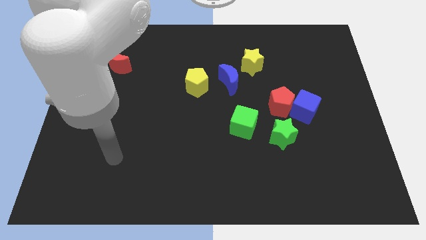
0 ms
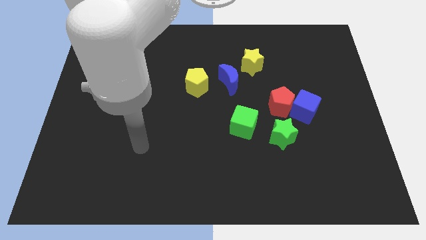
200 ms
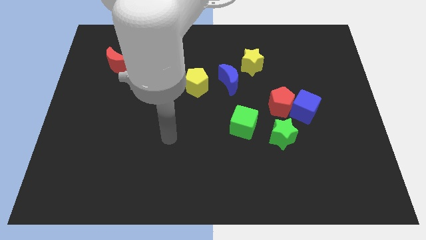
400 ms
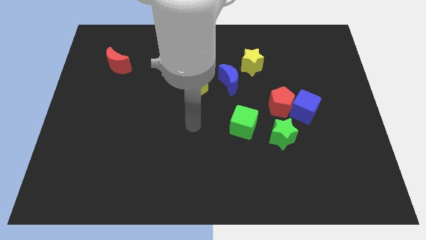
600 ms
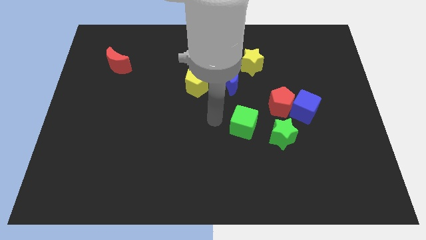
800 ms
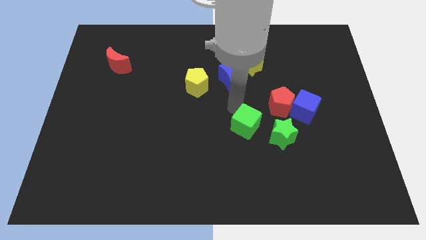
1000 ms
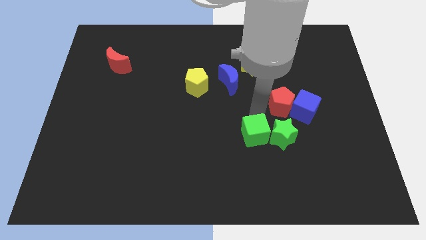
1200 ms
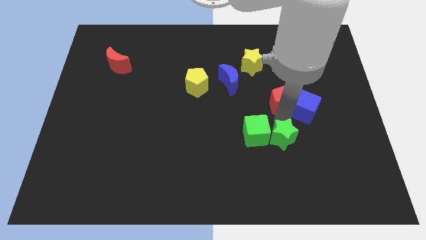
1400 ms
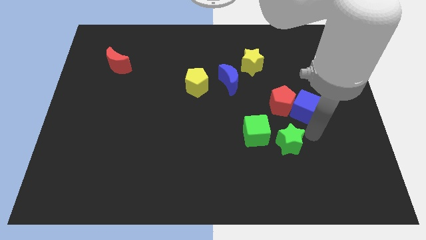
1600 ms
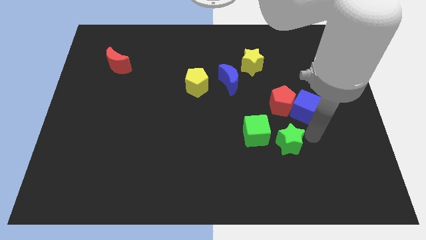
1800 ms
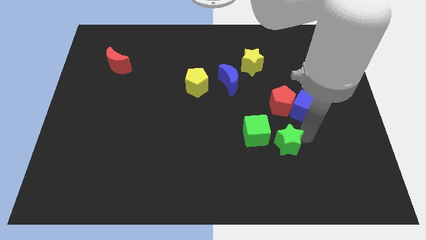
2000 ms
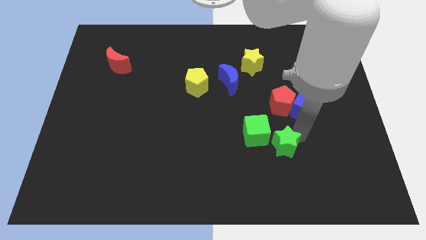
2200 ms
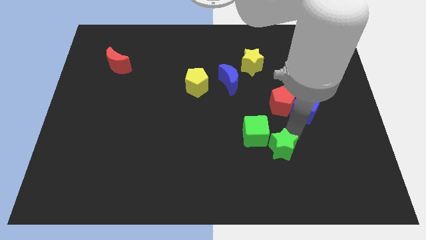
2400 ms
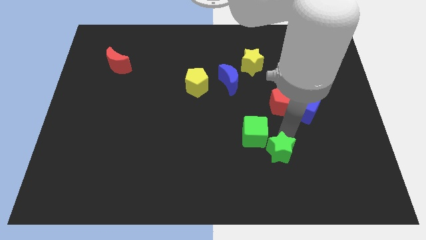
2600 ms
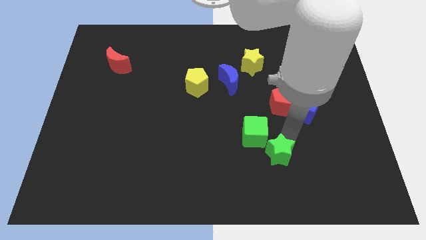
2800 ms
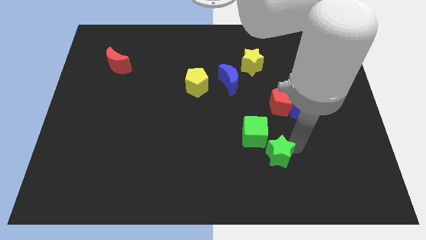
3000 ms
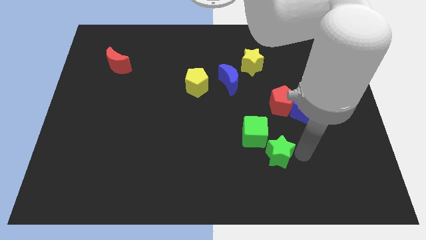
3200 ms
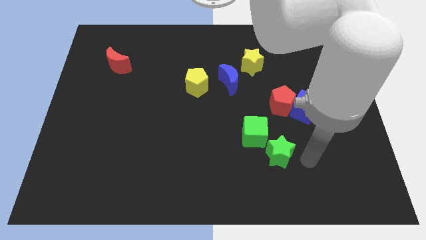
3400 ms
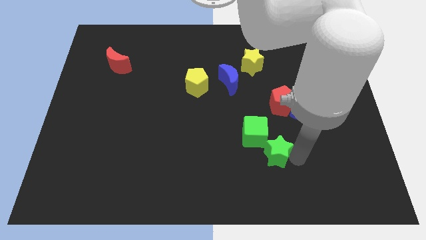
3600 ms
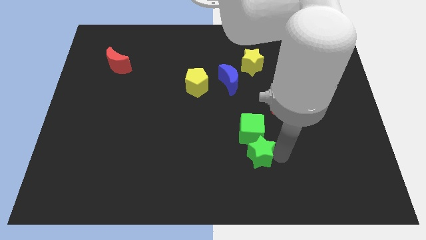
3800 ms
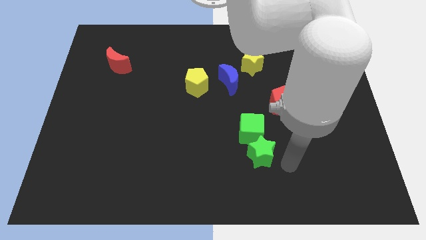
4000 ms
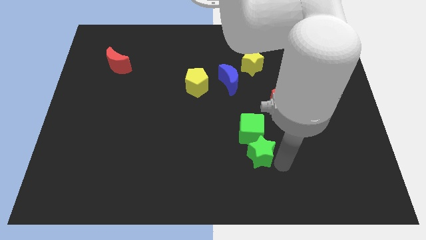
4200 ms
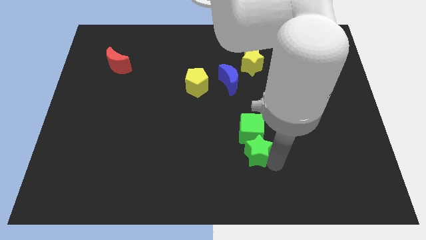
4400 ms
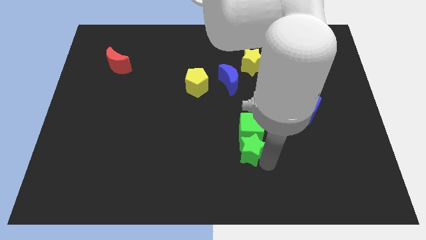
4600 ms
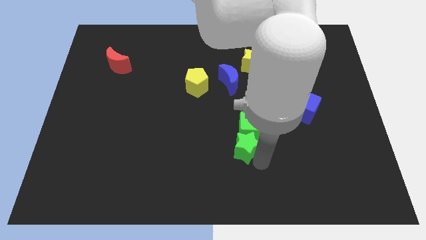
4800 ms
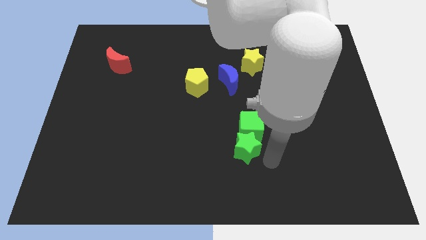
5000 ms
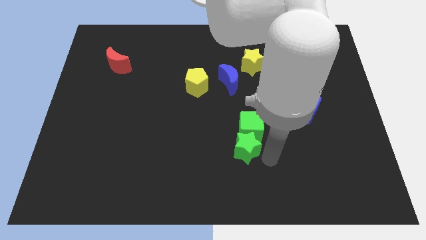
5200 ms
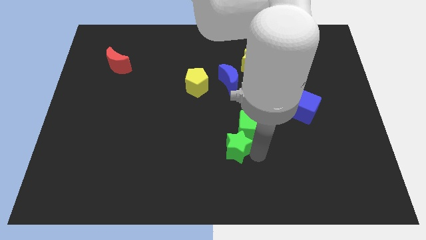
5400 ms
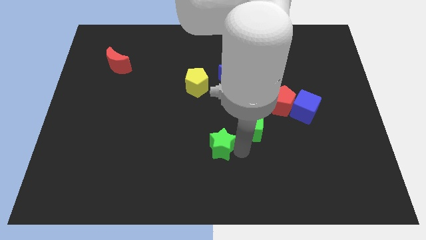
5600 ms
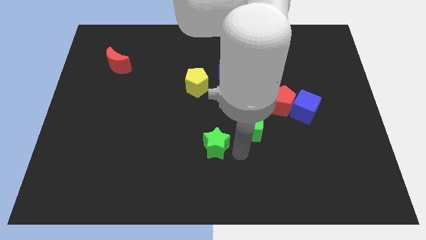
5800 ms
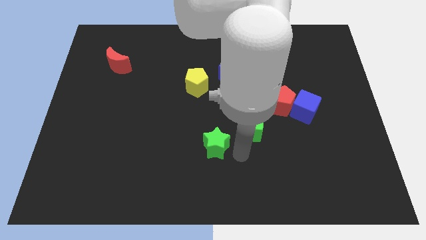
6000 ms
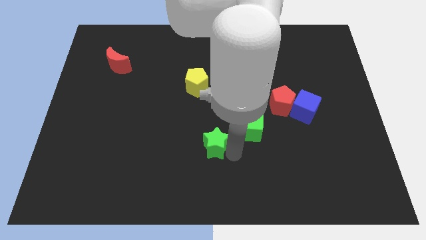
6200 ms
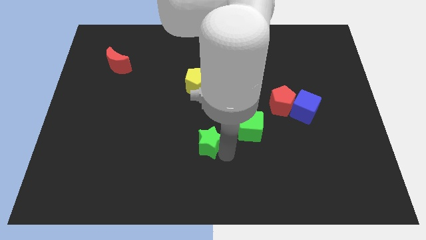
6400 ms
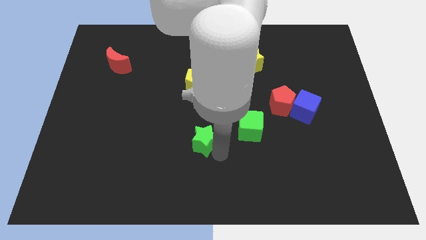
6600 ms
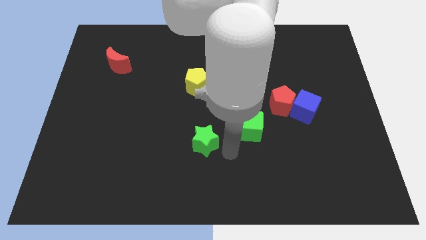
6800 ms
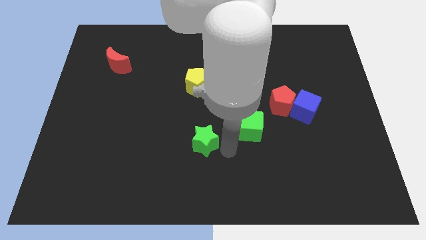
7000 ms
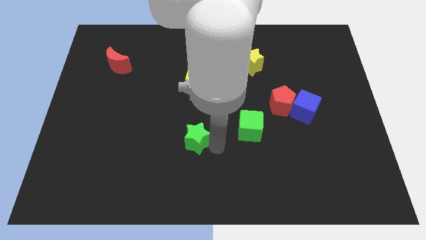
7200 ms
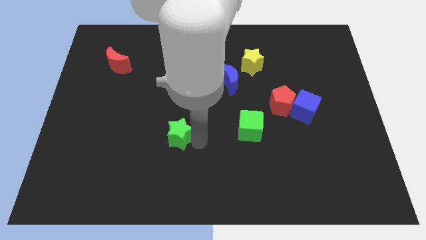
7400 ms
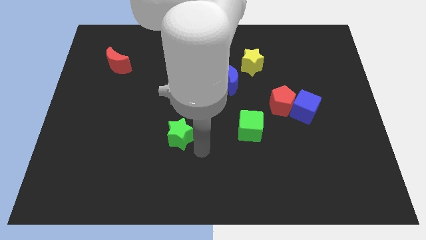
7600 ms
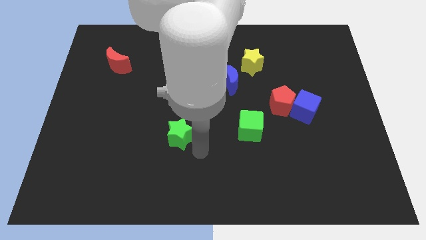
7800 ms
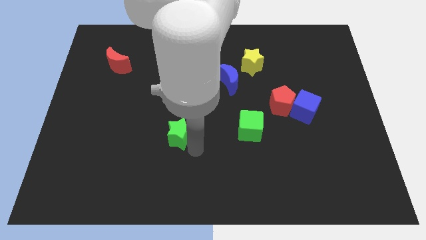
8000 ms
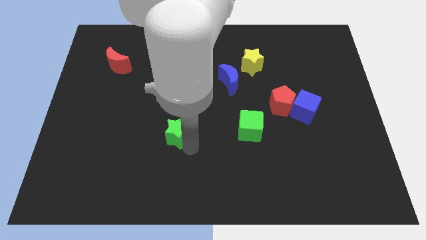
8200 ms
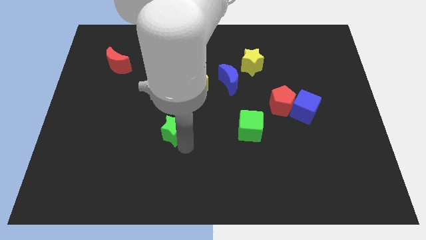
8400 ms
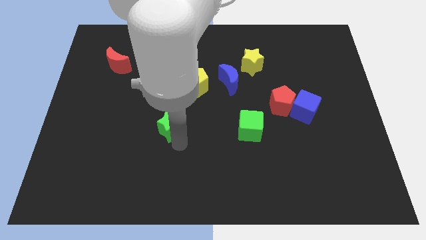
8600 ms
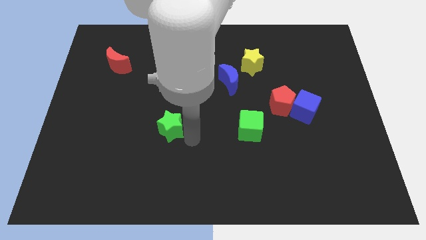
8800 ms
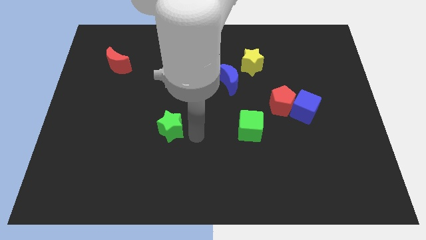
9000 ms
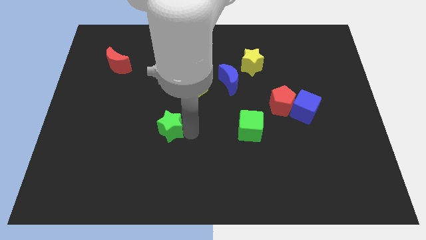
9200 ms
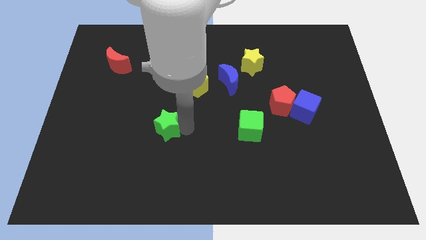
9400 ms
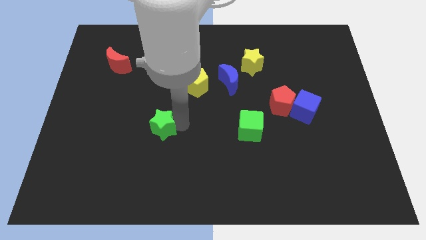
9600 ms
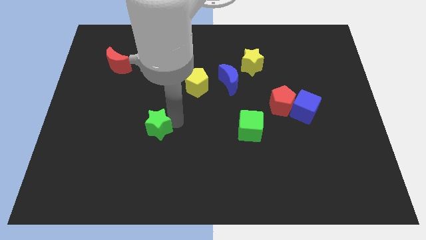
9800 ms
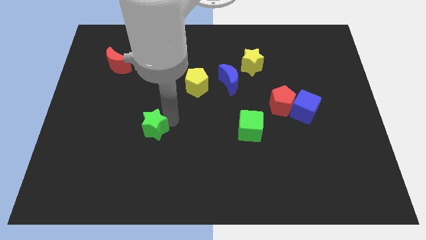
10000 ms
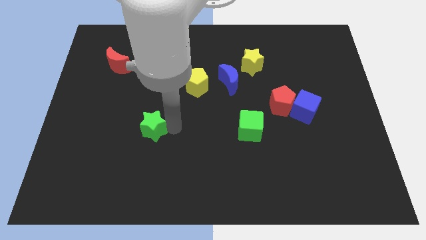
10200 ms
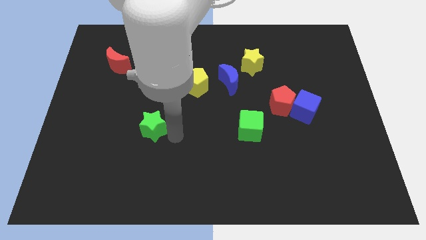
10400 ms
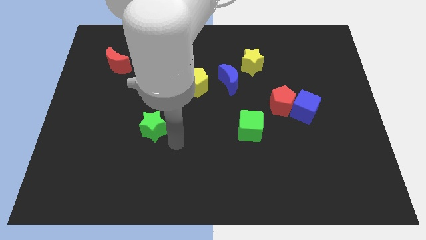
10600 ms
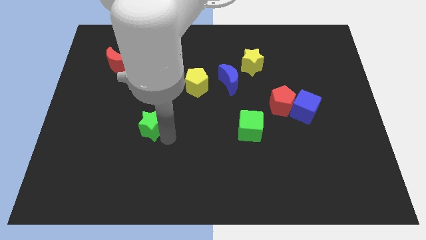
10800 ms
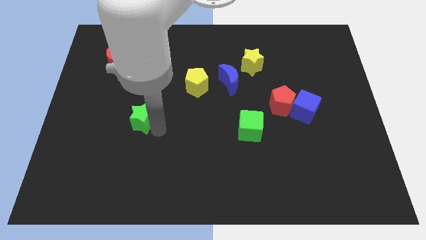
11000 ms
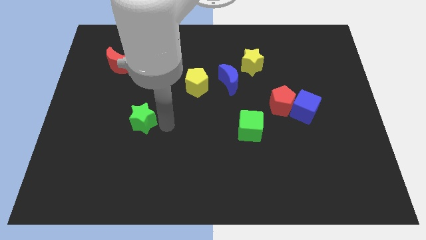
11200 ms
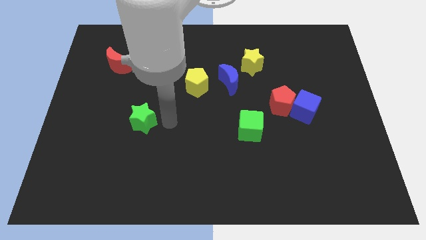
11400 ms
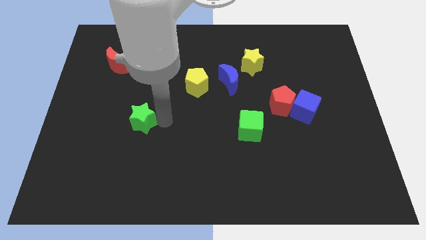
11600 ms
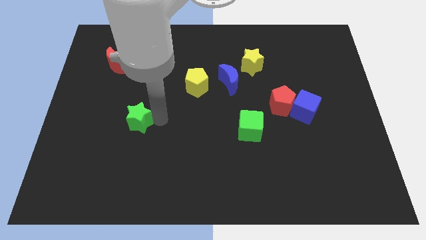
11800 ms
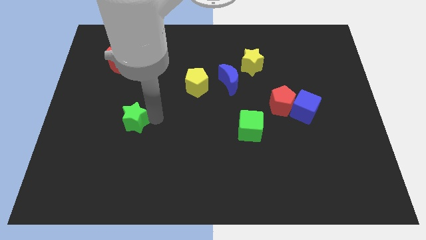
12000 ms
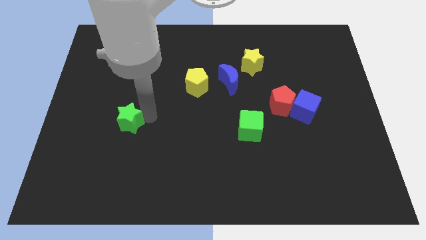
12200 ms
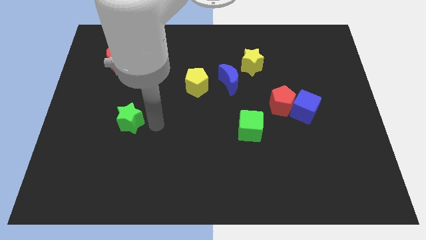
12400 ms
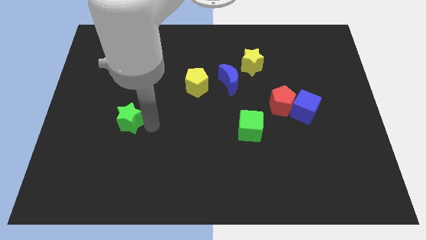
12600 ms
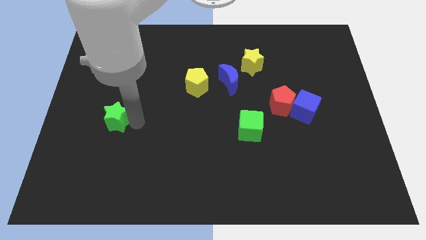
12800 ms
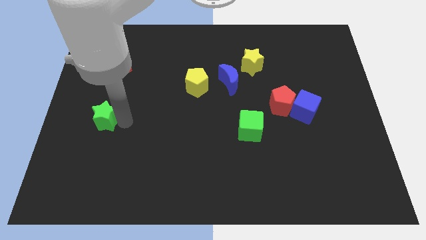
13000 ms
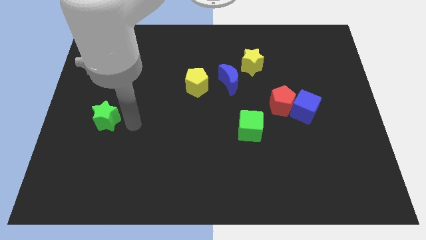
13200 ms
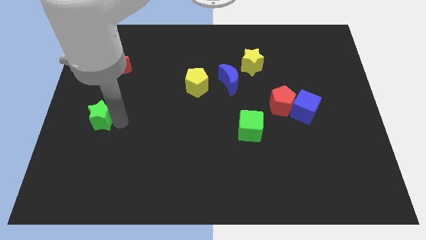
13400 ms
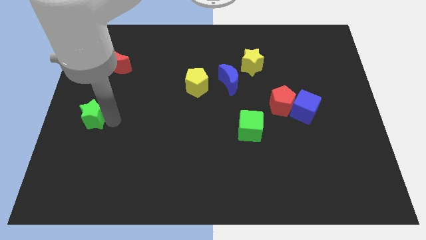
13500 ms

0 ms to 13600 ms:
slide the green star to the center left
